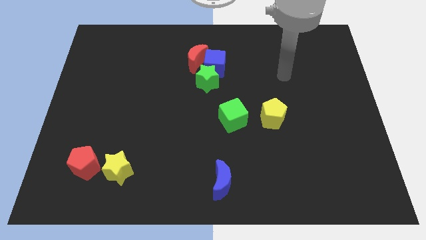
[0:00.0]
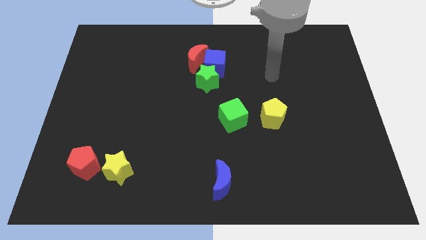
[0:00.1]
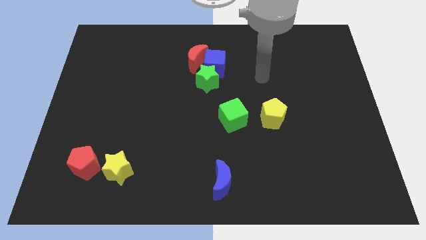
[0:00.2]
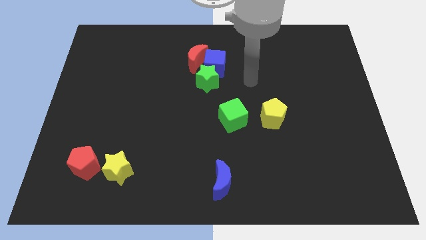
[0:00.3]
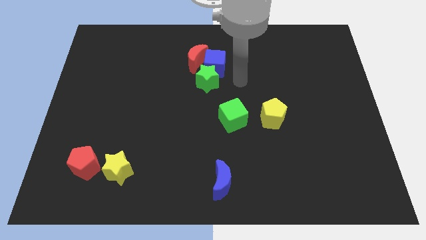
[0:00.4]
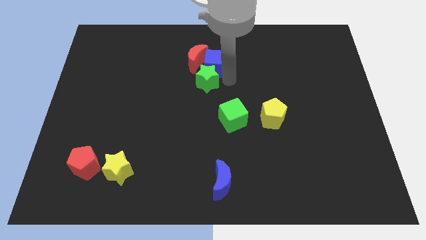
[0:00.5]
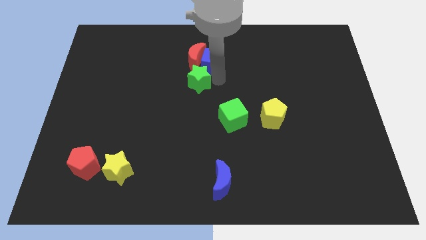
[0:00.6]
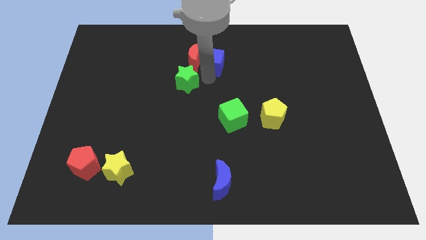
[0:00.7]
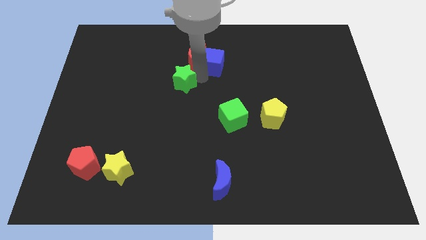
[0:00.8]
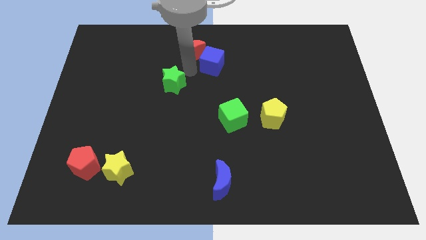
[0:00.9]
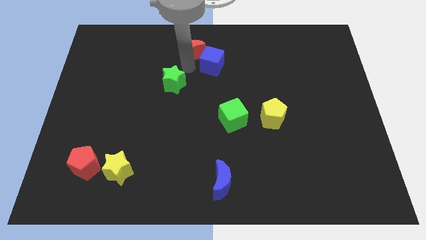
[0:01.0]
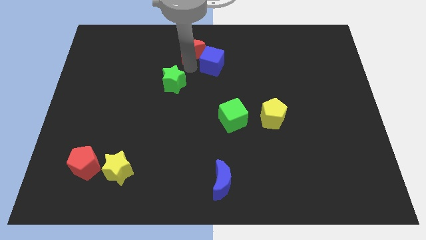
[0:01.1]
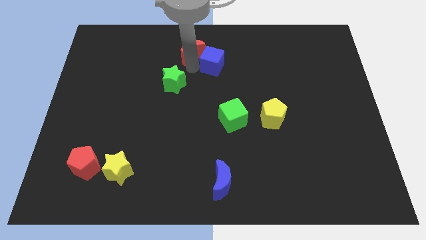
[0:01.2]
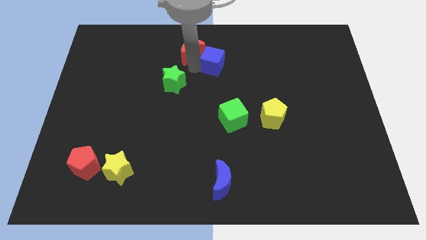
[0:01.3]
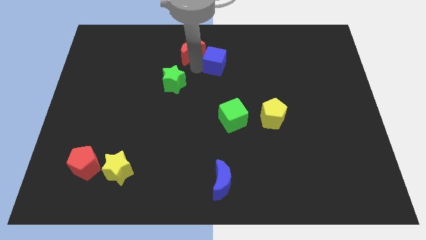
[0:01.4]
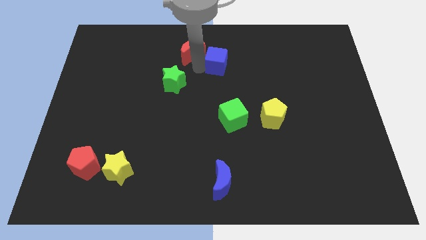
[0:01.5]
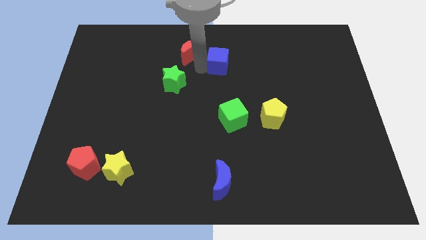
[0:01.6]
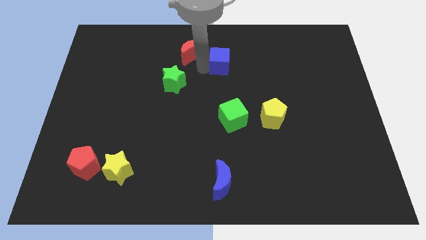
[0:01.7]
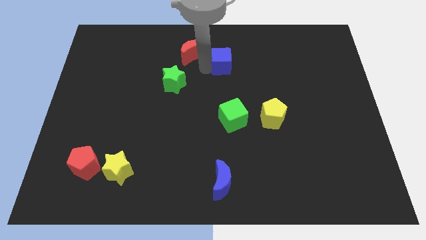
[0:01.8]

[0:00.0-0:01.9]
separate the blue cube from the green star and red moon

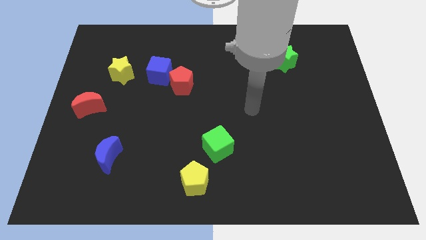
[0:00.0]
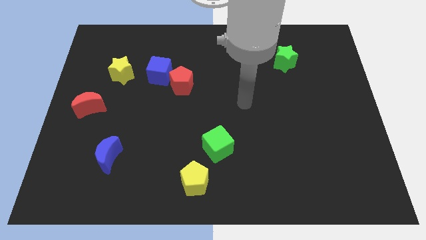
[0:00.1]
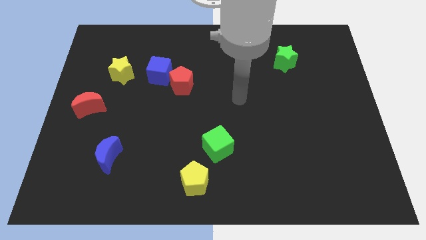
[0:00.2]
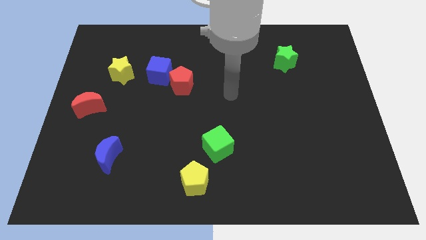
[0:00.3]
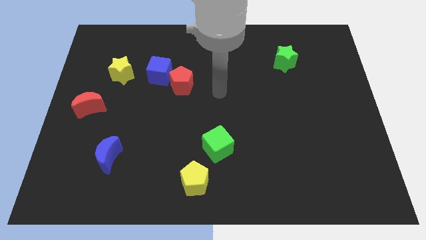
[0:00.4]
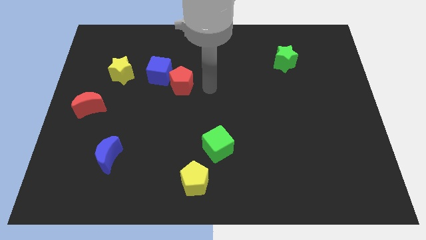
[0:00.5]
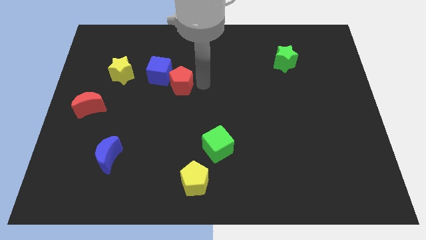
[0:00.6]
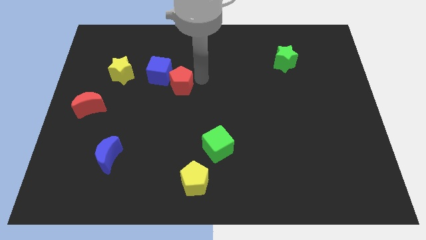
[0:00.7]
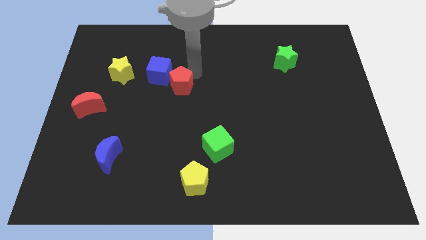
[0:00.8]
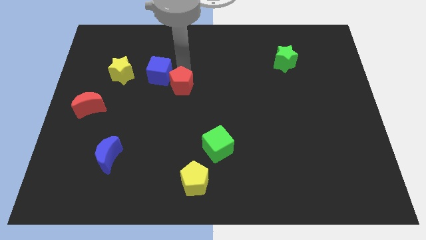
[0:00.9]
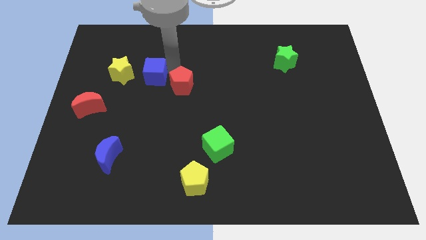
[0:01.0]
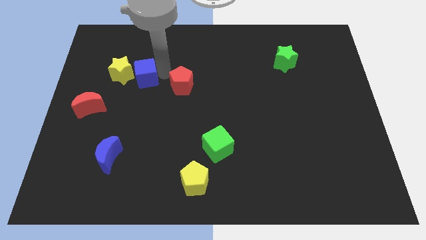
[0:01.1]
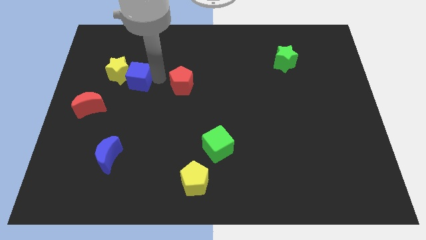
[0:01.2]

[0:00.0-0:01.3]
move the red pentagon away from the blue cube

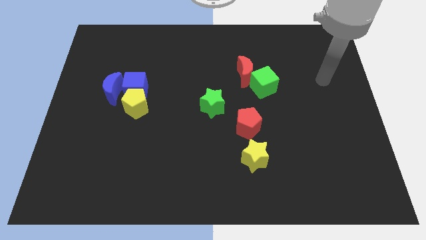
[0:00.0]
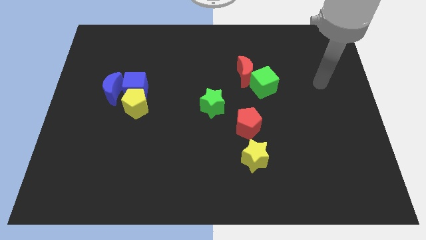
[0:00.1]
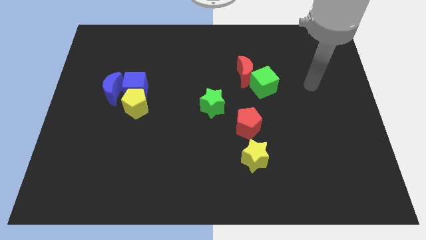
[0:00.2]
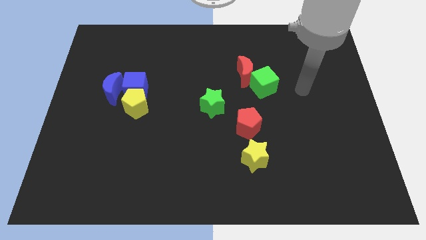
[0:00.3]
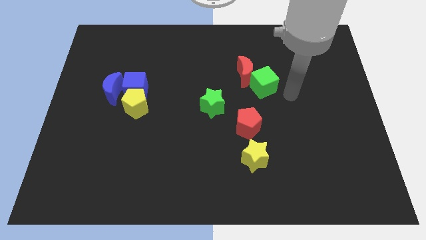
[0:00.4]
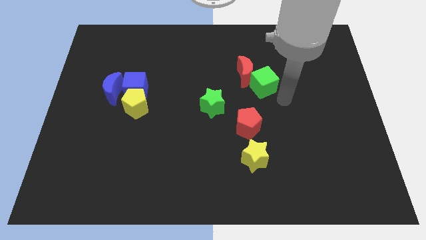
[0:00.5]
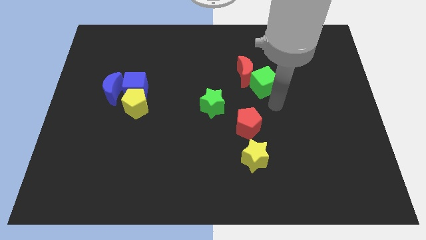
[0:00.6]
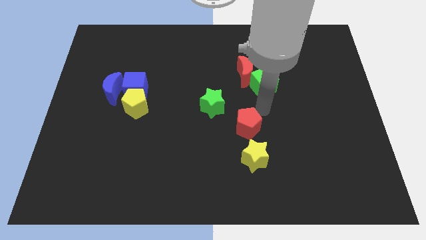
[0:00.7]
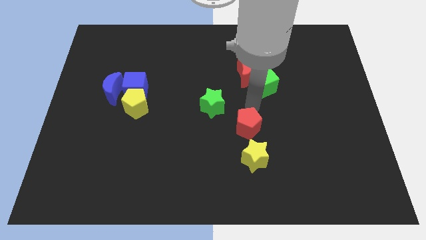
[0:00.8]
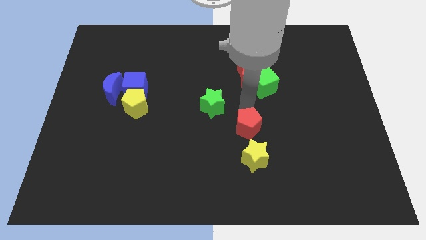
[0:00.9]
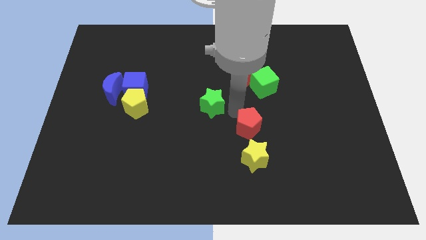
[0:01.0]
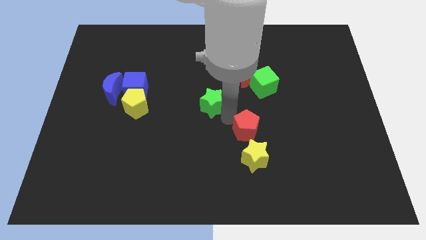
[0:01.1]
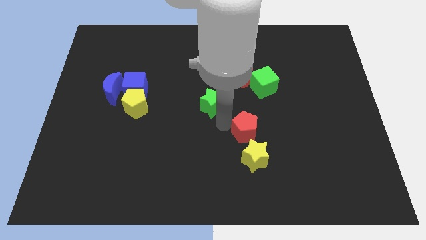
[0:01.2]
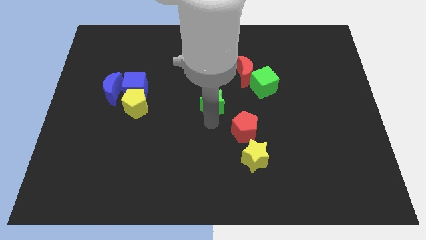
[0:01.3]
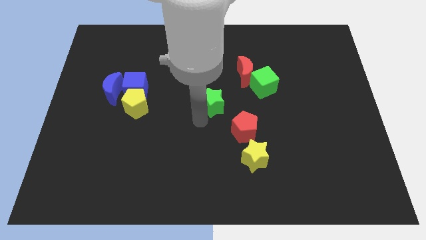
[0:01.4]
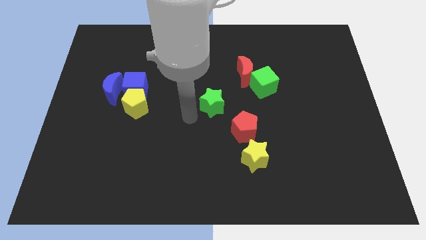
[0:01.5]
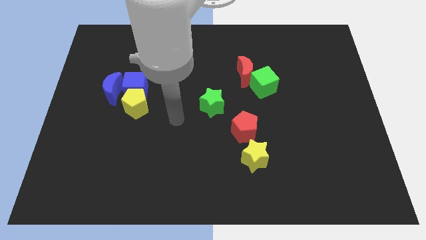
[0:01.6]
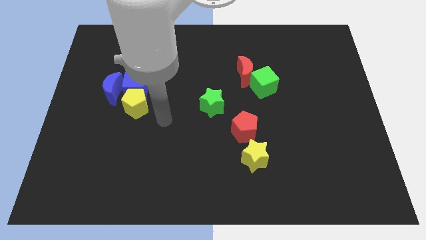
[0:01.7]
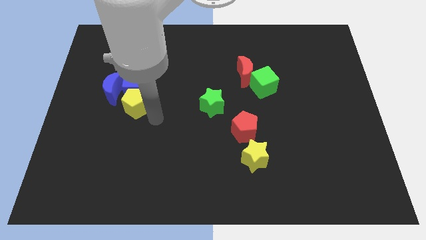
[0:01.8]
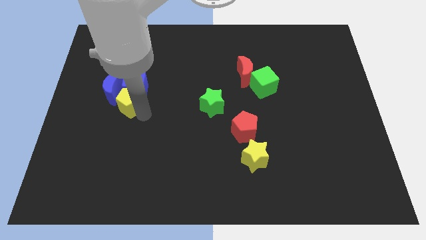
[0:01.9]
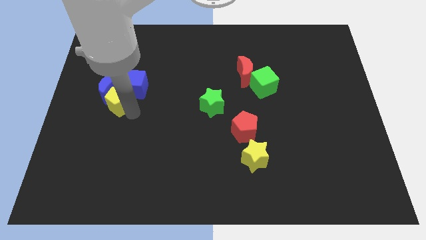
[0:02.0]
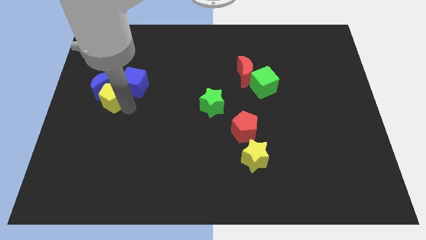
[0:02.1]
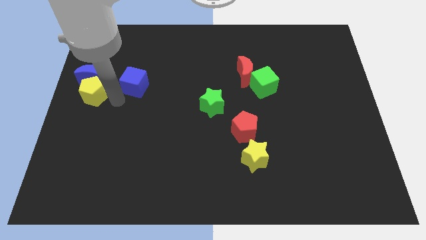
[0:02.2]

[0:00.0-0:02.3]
separate the blue cube from the yellow pentagon and blue moon

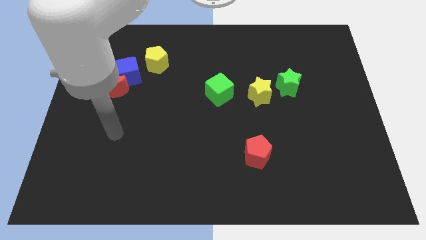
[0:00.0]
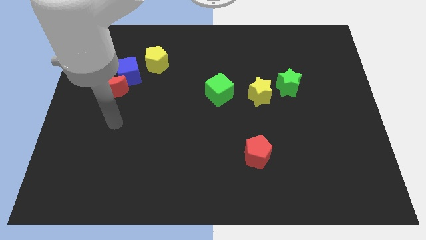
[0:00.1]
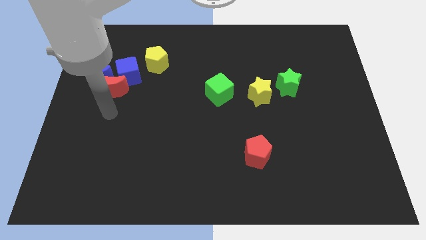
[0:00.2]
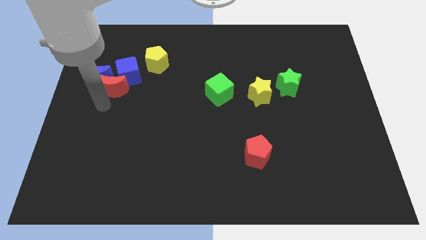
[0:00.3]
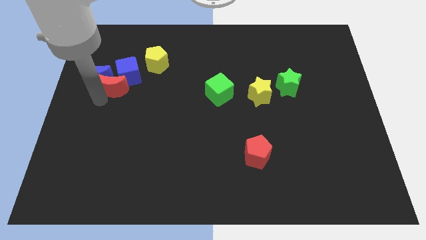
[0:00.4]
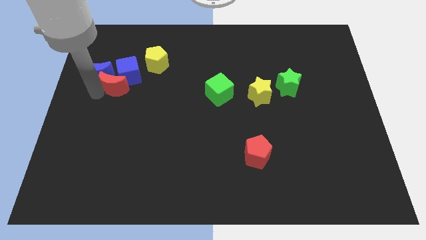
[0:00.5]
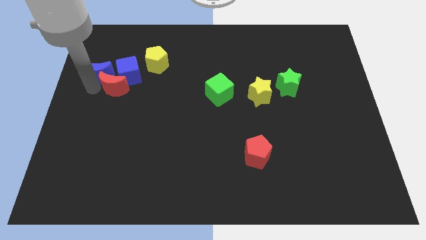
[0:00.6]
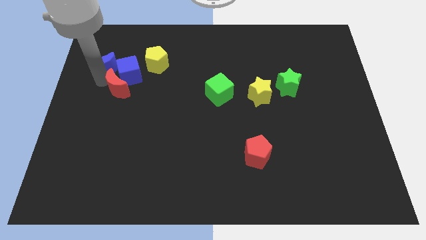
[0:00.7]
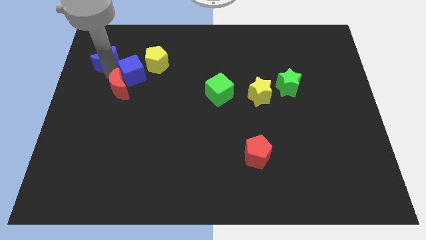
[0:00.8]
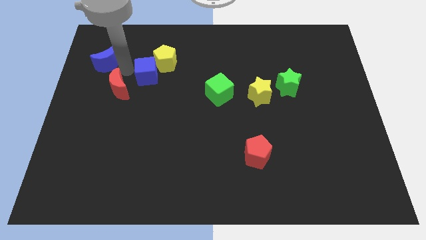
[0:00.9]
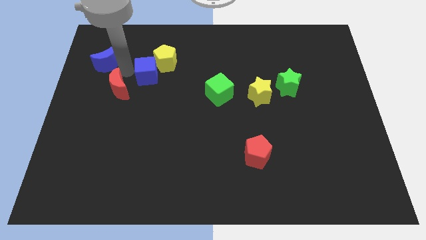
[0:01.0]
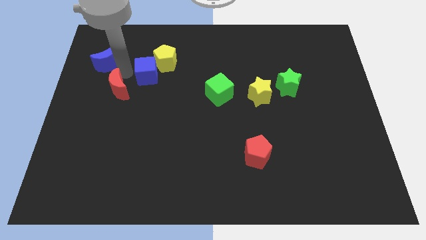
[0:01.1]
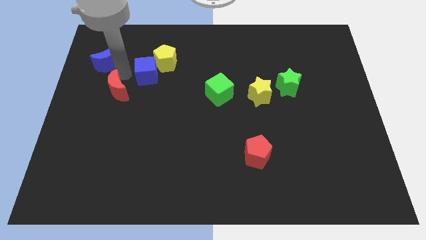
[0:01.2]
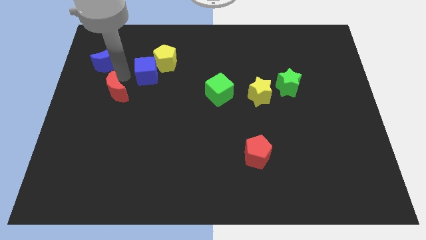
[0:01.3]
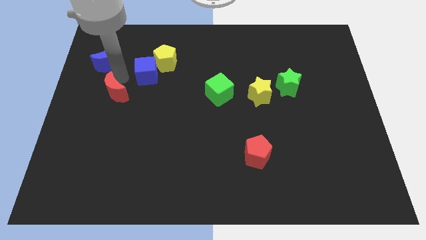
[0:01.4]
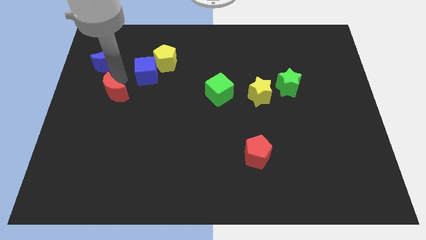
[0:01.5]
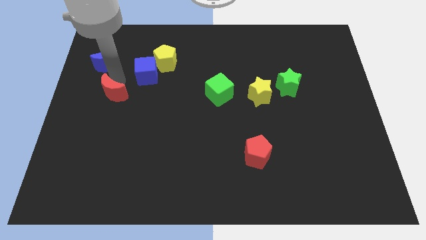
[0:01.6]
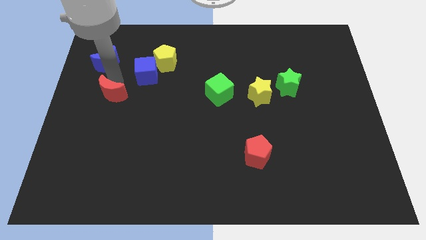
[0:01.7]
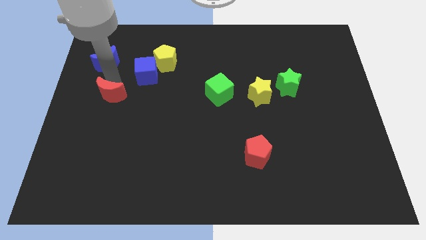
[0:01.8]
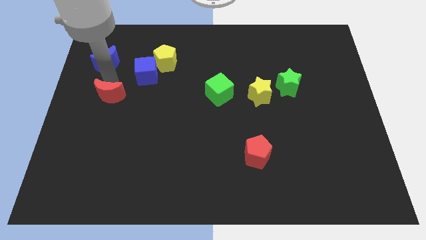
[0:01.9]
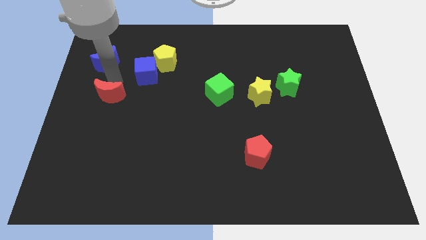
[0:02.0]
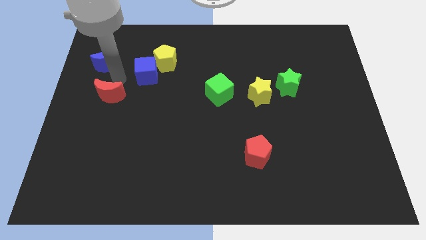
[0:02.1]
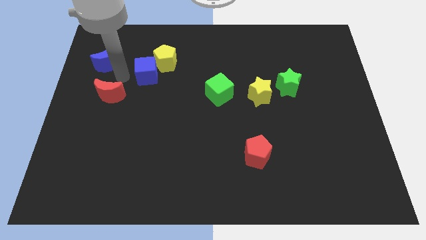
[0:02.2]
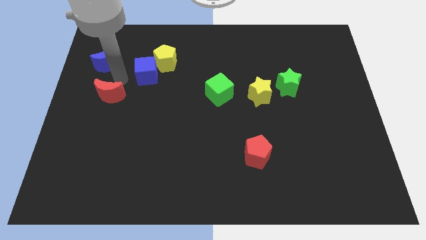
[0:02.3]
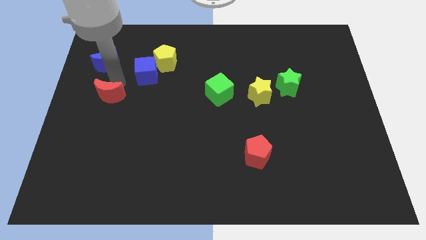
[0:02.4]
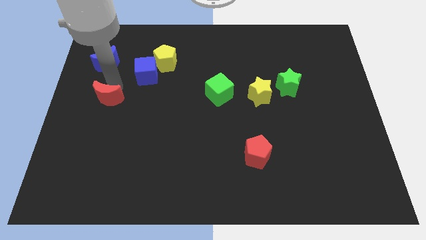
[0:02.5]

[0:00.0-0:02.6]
separate the red moon from the blue moon and blue cube

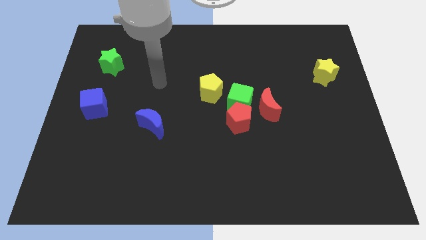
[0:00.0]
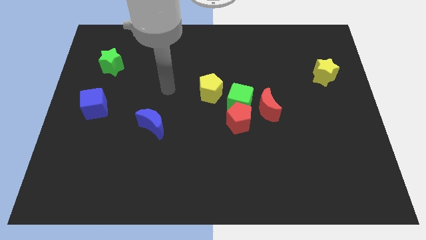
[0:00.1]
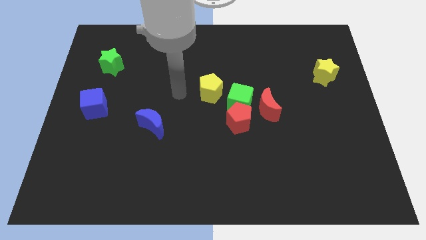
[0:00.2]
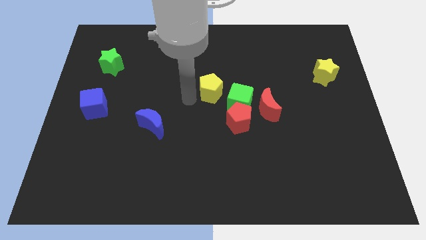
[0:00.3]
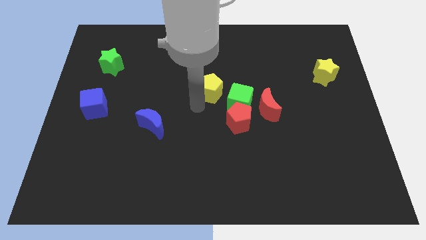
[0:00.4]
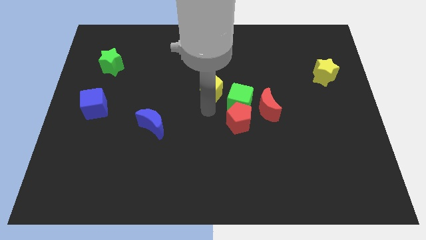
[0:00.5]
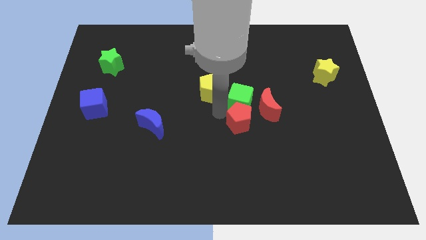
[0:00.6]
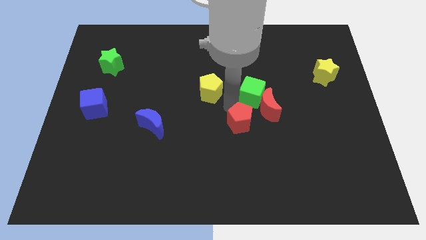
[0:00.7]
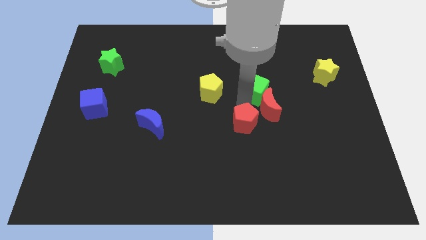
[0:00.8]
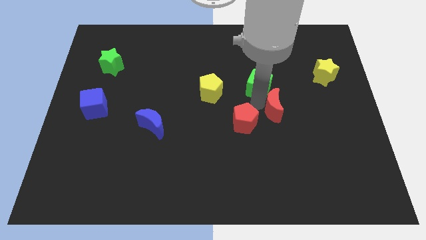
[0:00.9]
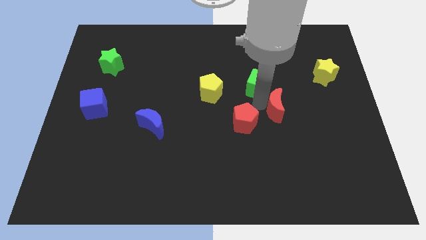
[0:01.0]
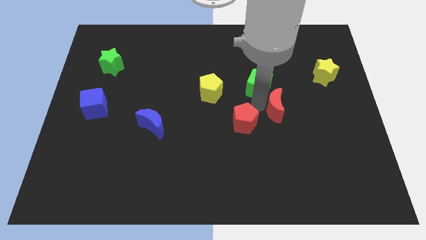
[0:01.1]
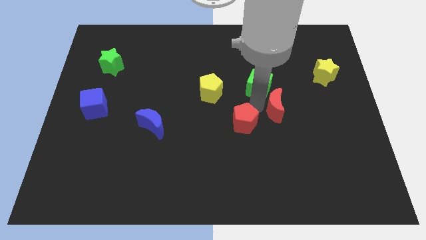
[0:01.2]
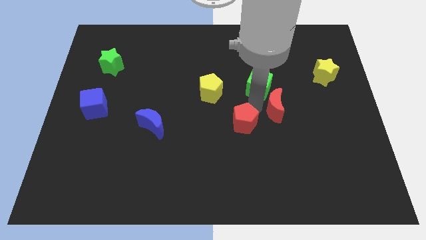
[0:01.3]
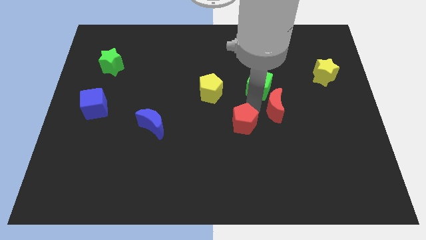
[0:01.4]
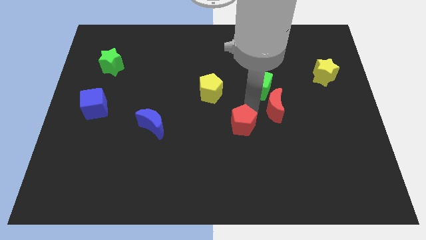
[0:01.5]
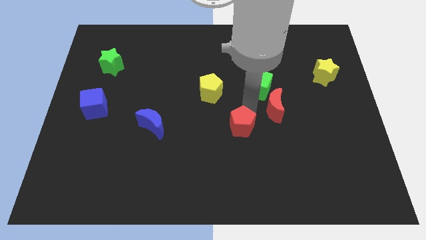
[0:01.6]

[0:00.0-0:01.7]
pull the red pentagon apart from the green cube and red moon
